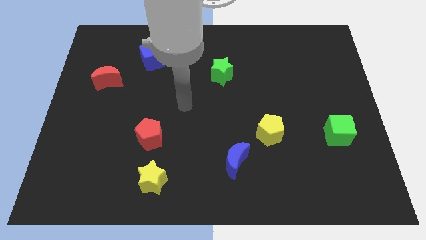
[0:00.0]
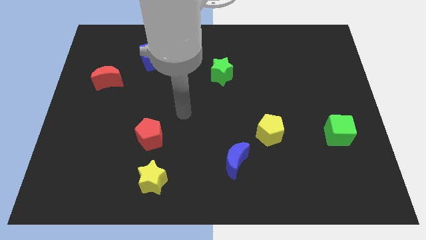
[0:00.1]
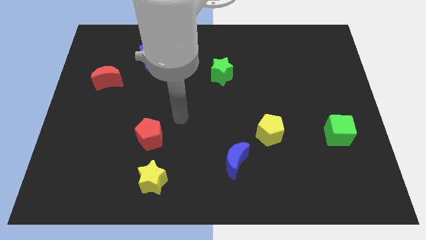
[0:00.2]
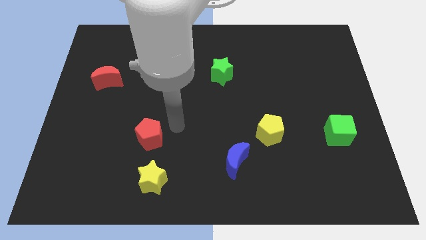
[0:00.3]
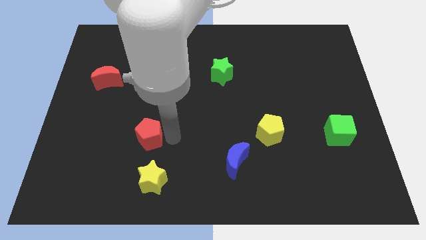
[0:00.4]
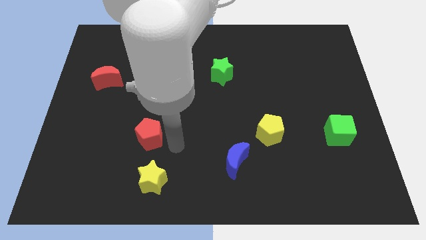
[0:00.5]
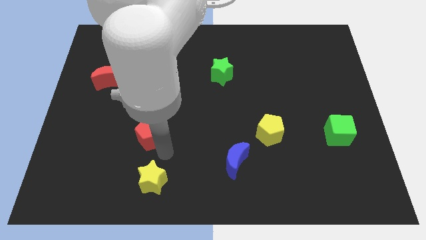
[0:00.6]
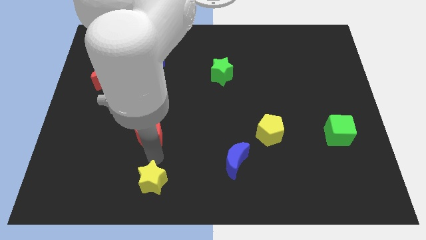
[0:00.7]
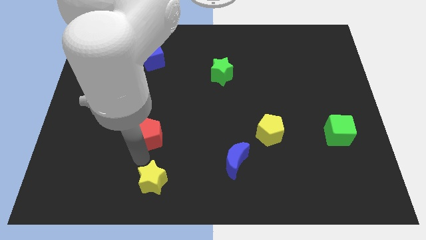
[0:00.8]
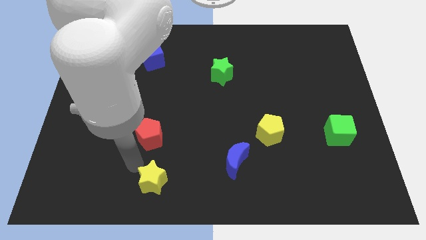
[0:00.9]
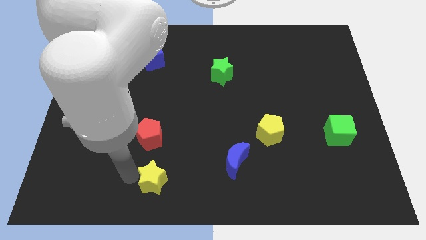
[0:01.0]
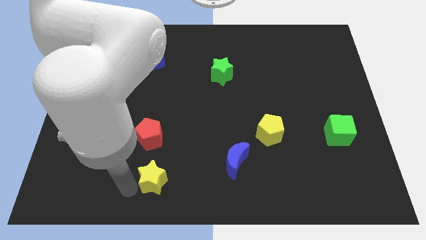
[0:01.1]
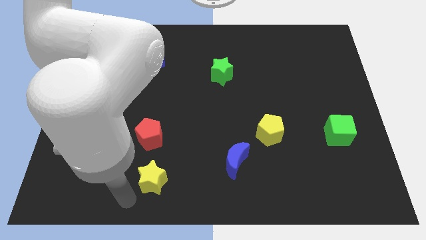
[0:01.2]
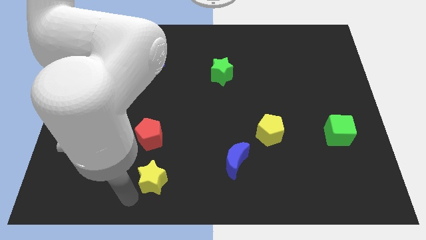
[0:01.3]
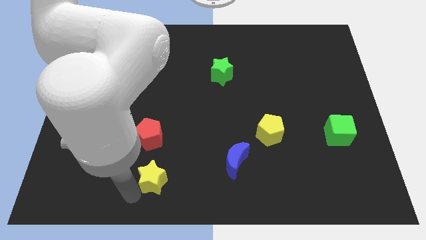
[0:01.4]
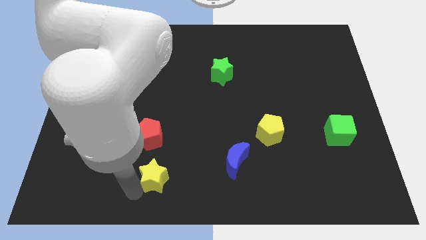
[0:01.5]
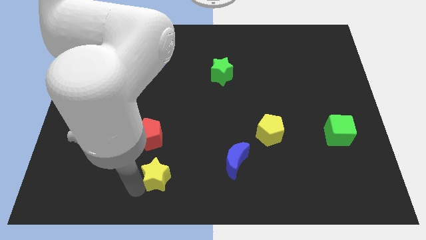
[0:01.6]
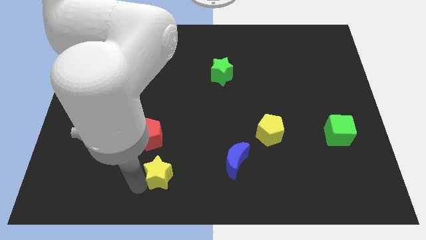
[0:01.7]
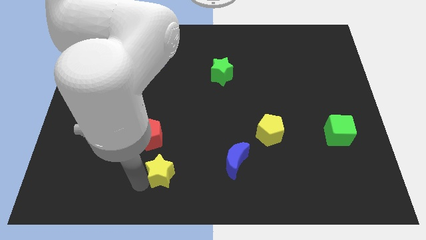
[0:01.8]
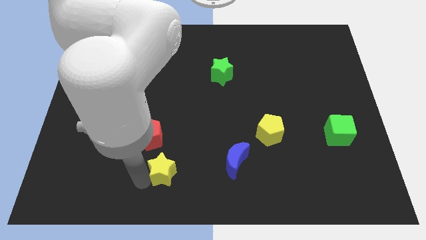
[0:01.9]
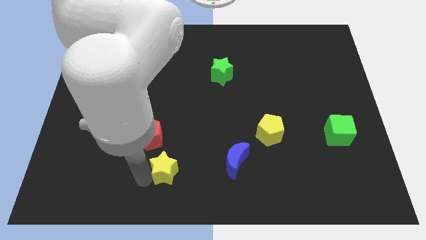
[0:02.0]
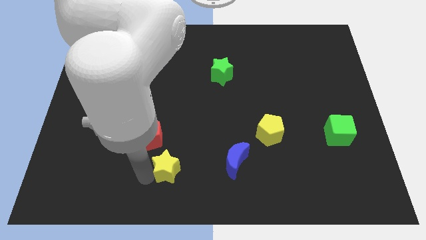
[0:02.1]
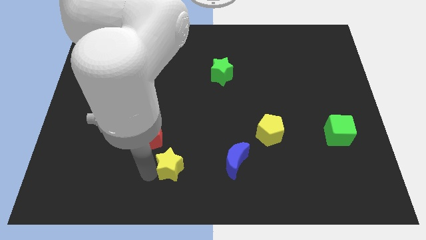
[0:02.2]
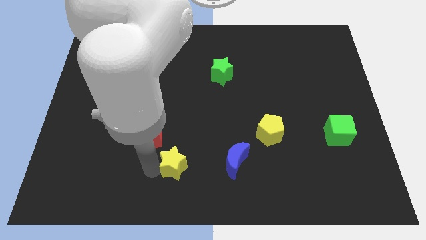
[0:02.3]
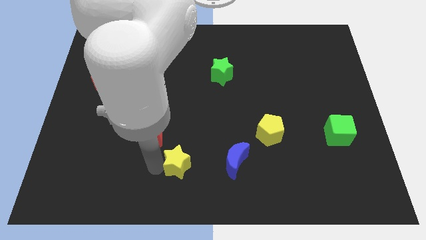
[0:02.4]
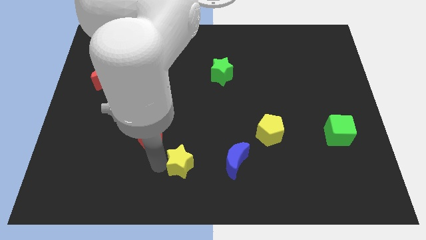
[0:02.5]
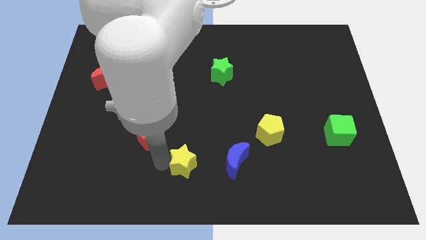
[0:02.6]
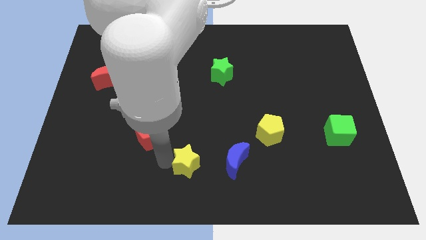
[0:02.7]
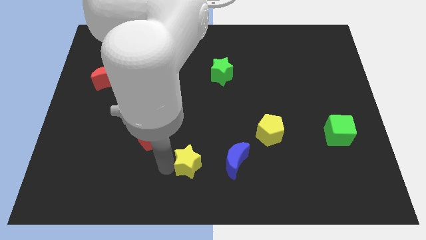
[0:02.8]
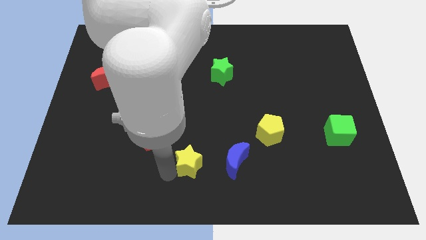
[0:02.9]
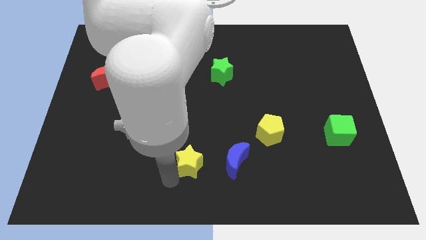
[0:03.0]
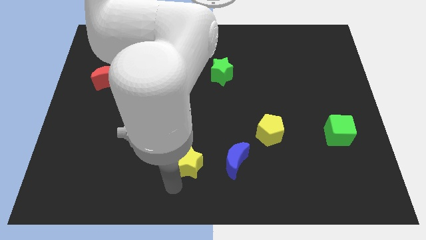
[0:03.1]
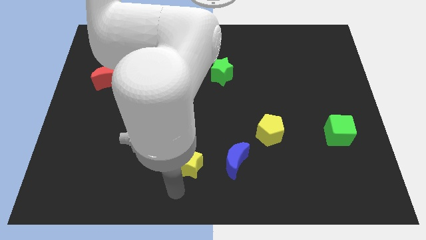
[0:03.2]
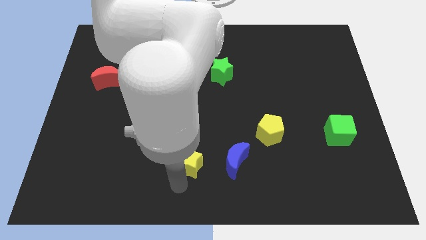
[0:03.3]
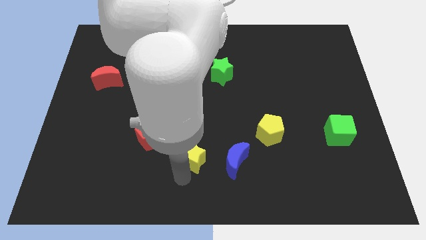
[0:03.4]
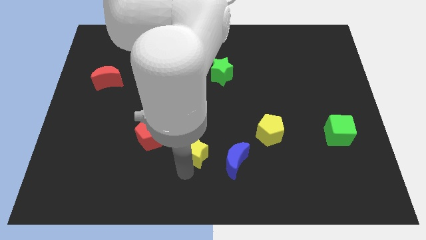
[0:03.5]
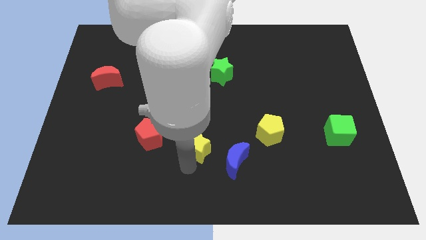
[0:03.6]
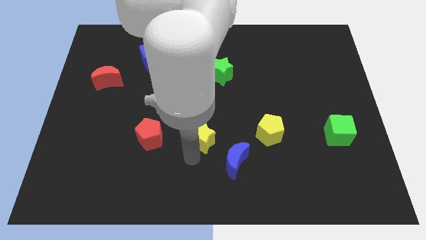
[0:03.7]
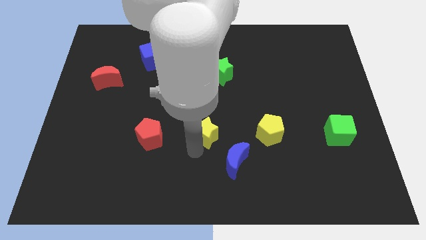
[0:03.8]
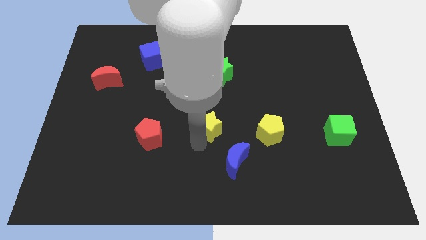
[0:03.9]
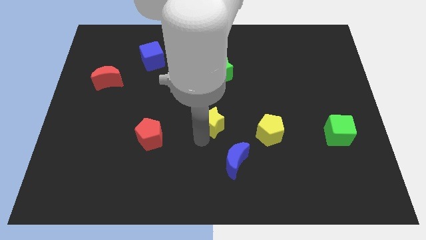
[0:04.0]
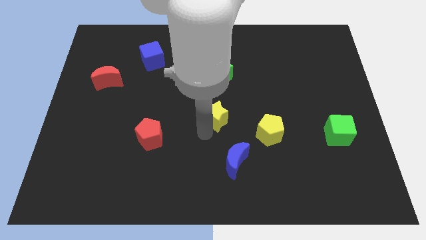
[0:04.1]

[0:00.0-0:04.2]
move the yellow star upwards and then right

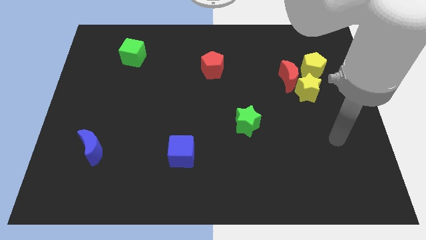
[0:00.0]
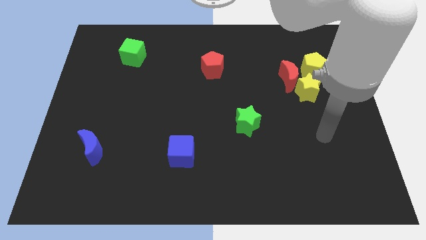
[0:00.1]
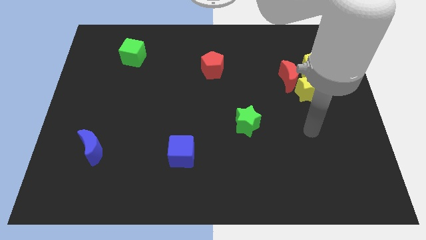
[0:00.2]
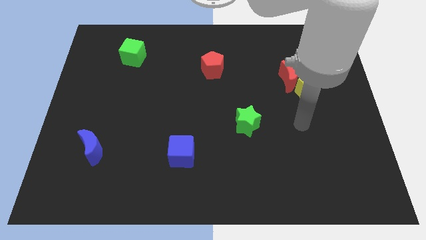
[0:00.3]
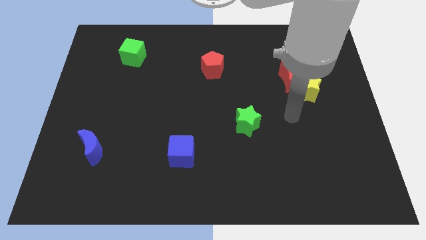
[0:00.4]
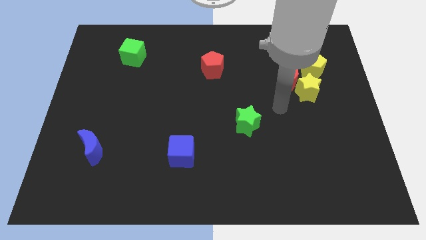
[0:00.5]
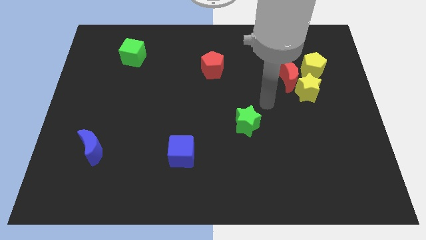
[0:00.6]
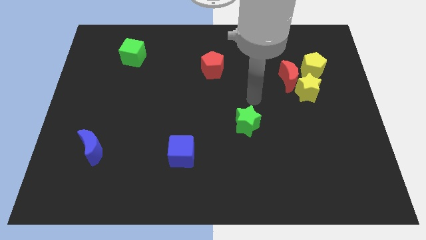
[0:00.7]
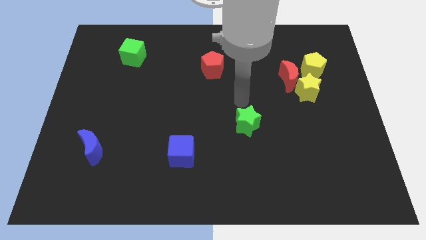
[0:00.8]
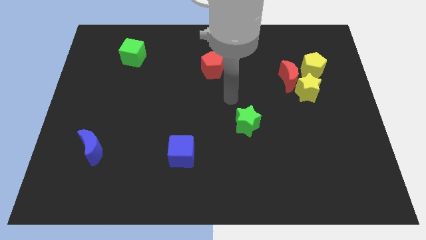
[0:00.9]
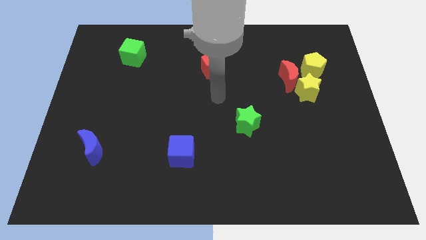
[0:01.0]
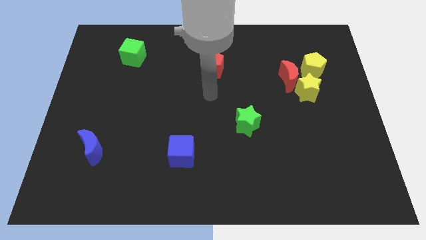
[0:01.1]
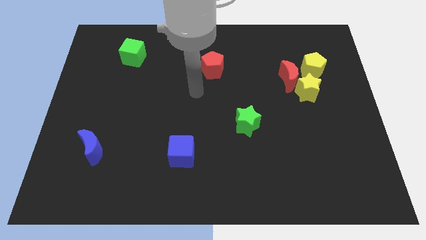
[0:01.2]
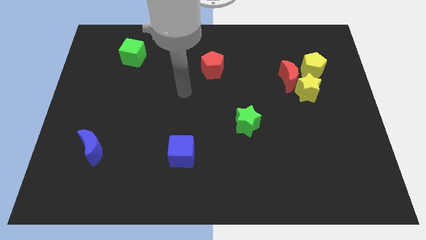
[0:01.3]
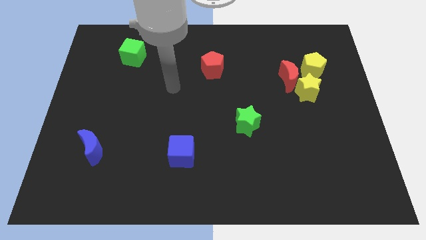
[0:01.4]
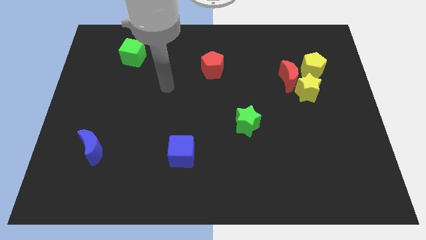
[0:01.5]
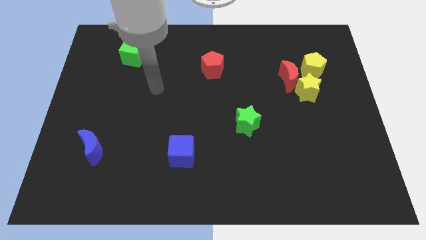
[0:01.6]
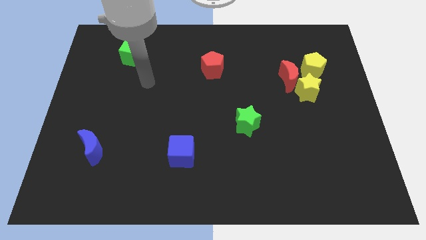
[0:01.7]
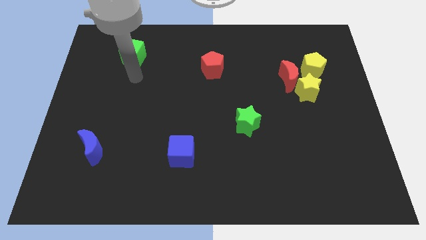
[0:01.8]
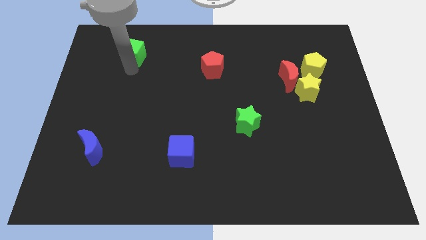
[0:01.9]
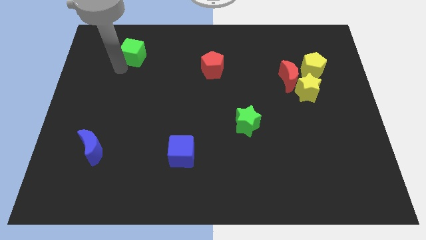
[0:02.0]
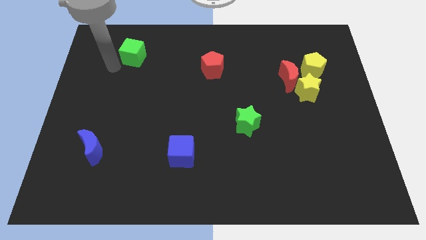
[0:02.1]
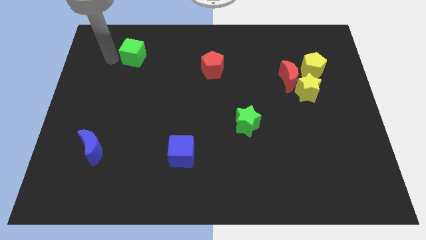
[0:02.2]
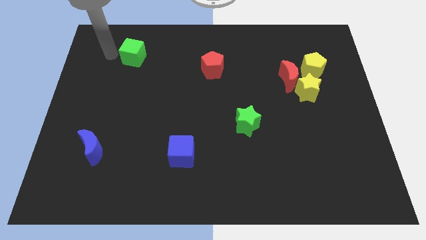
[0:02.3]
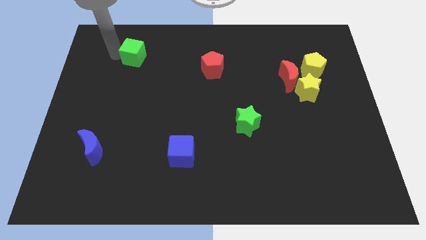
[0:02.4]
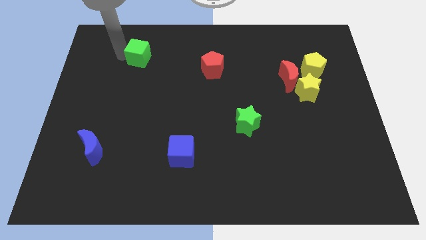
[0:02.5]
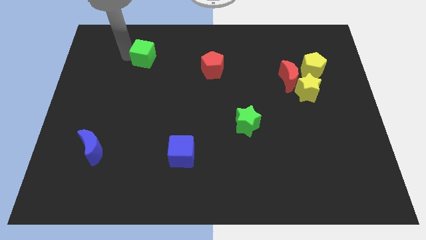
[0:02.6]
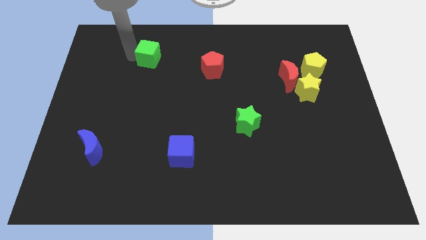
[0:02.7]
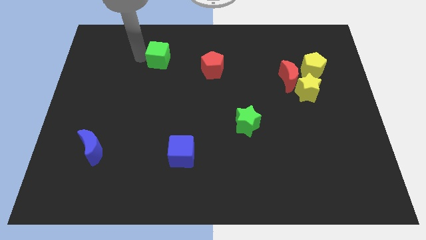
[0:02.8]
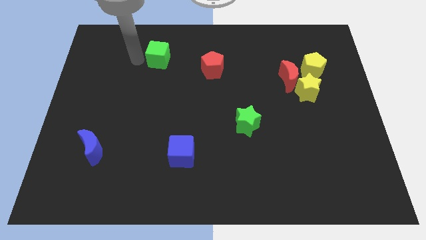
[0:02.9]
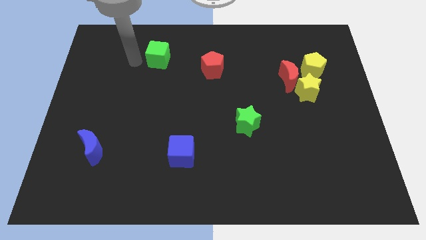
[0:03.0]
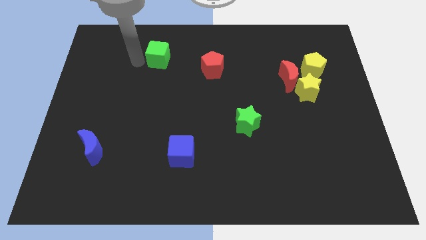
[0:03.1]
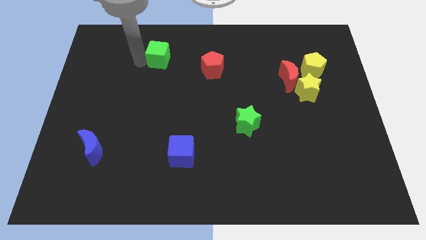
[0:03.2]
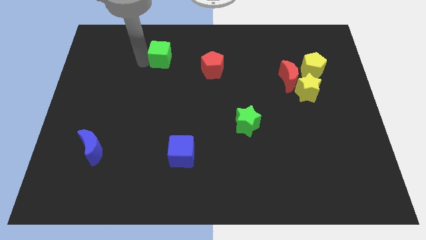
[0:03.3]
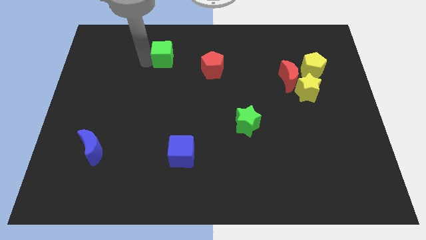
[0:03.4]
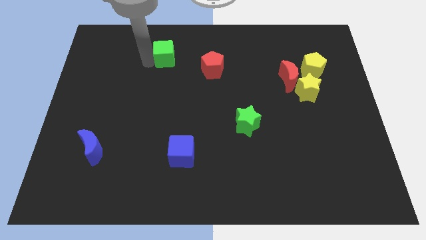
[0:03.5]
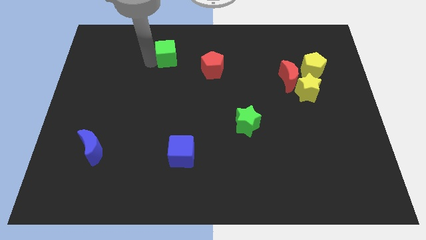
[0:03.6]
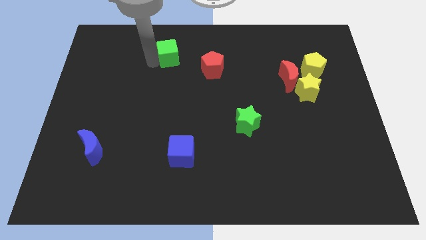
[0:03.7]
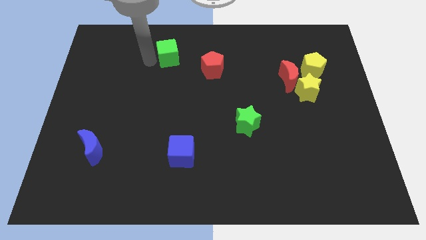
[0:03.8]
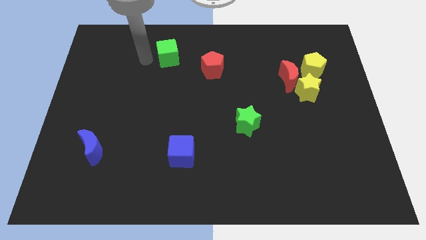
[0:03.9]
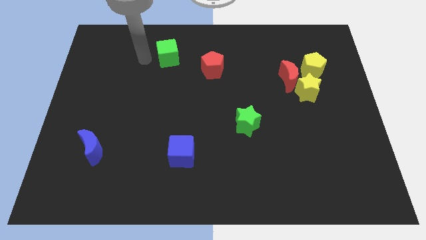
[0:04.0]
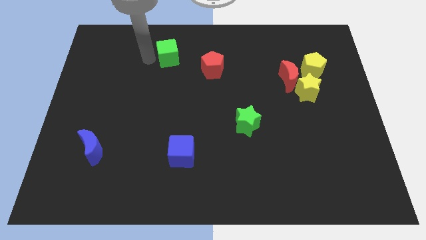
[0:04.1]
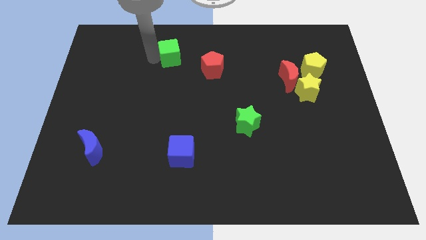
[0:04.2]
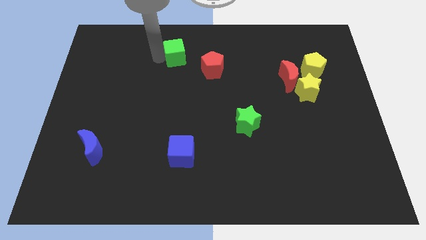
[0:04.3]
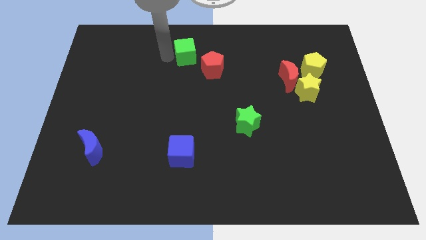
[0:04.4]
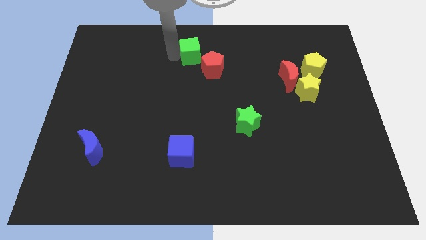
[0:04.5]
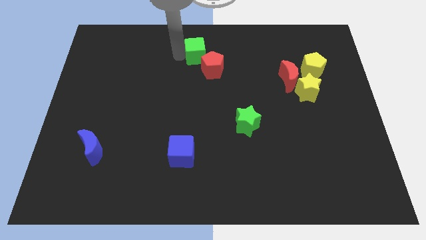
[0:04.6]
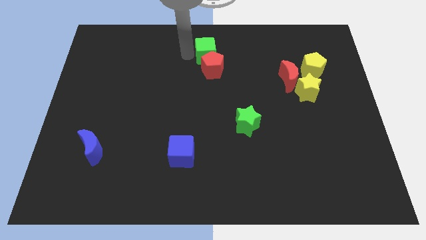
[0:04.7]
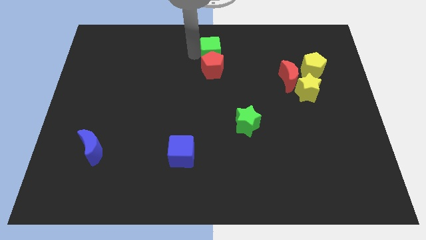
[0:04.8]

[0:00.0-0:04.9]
push the green cube right
